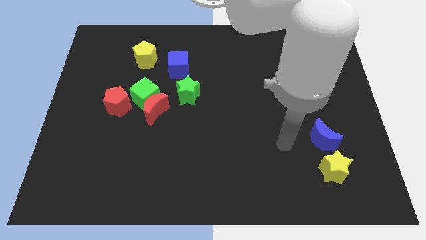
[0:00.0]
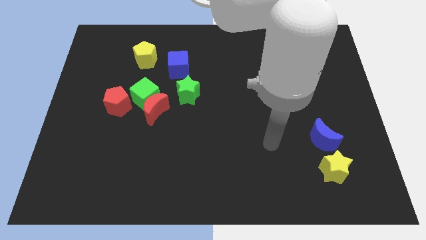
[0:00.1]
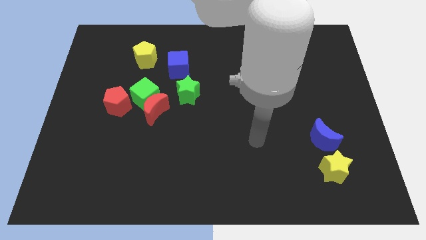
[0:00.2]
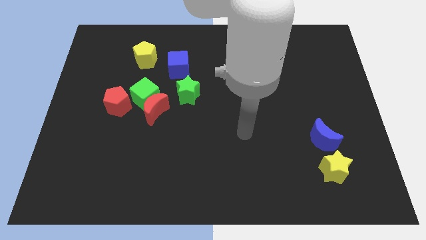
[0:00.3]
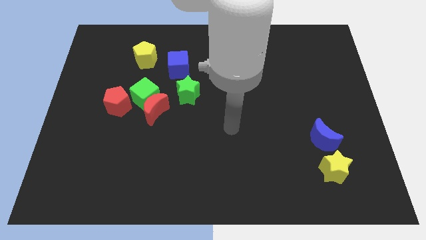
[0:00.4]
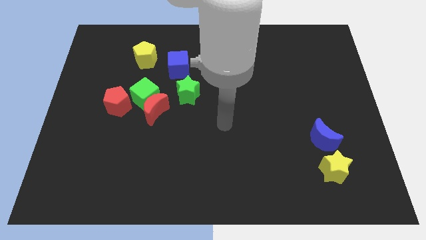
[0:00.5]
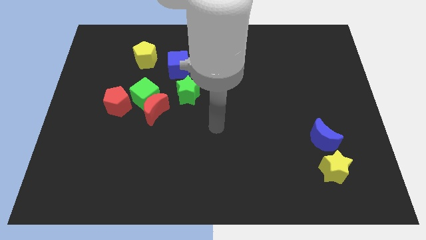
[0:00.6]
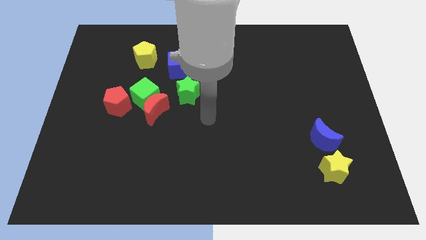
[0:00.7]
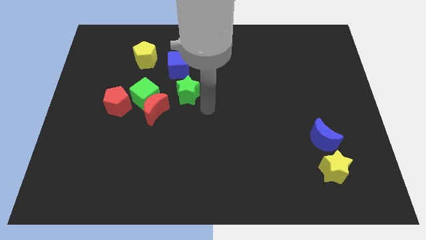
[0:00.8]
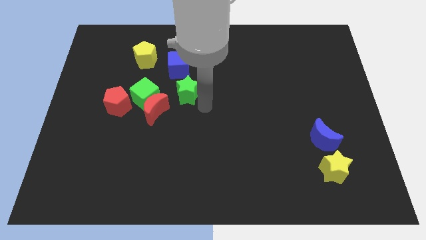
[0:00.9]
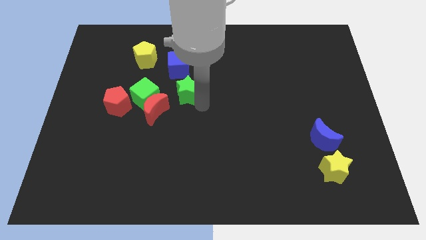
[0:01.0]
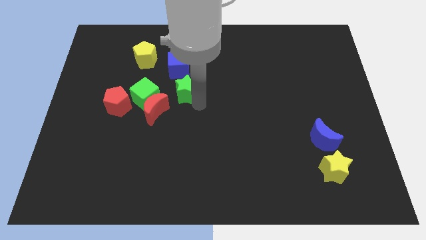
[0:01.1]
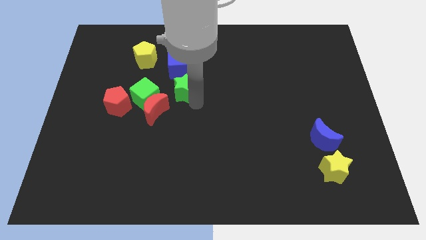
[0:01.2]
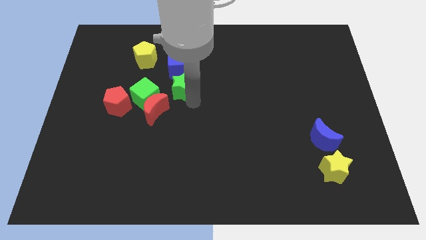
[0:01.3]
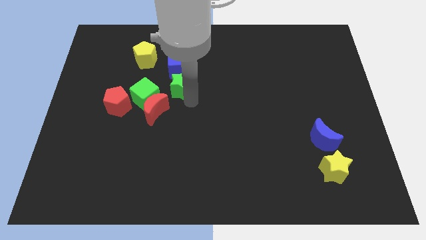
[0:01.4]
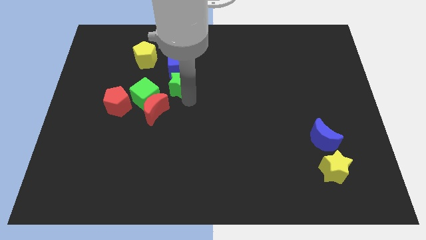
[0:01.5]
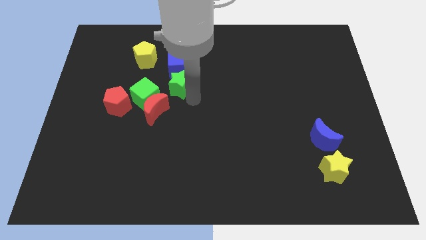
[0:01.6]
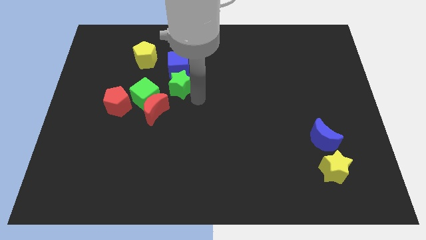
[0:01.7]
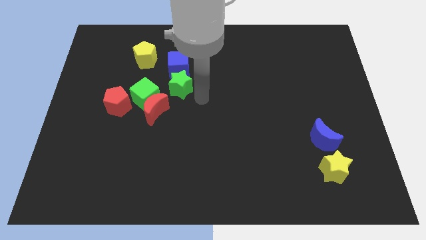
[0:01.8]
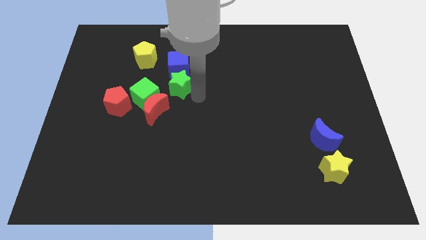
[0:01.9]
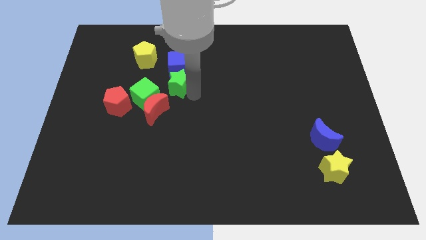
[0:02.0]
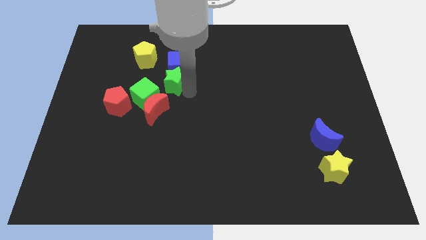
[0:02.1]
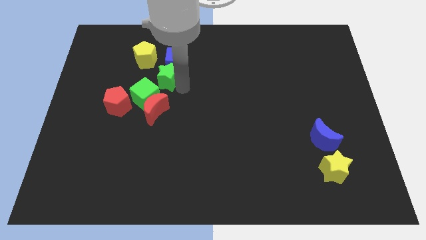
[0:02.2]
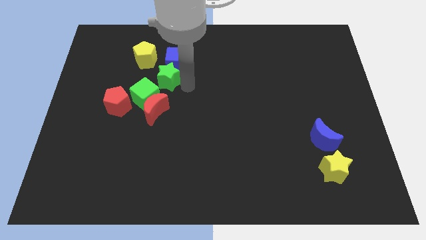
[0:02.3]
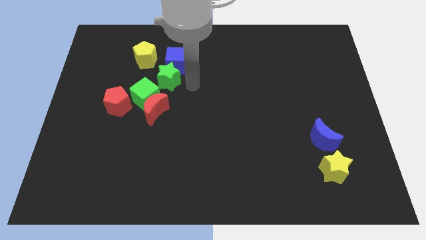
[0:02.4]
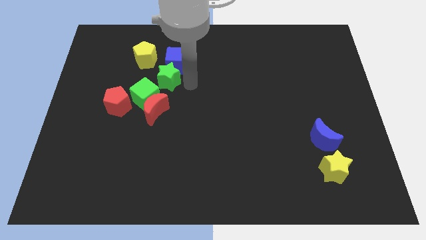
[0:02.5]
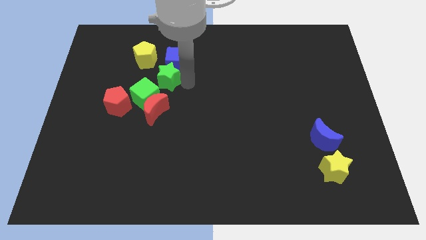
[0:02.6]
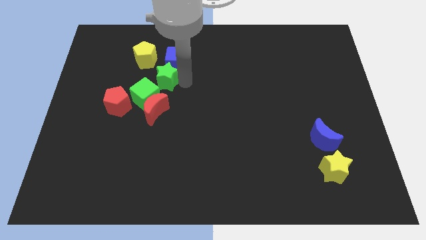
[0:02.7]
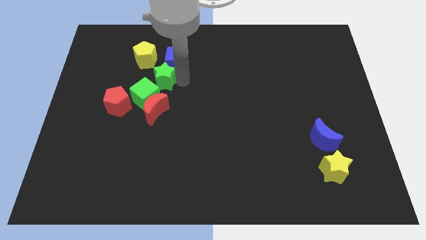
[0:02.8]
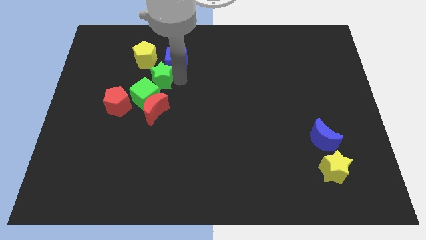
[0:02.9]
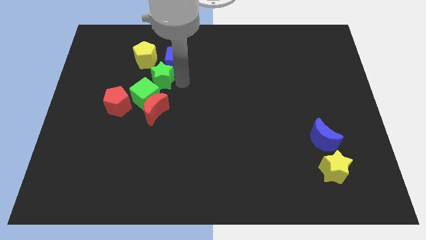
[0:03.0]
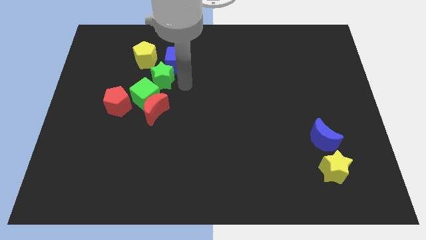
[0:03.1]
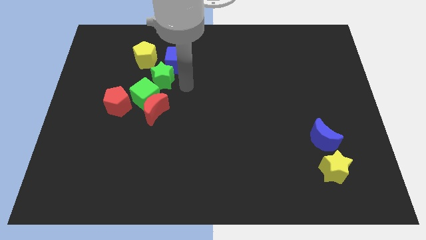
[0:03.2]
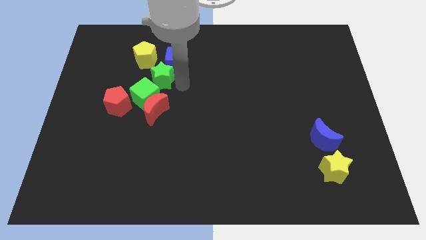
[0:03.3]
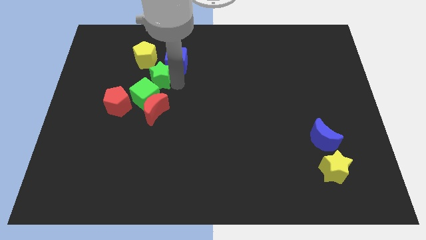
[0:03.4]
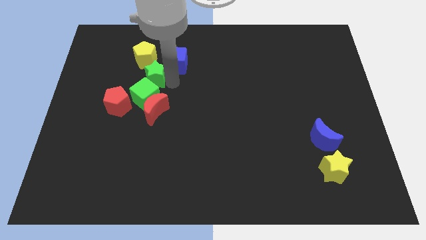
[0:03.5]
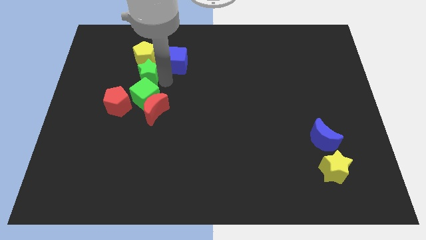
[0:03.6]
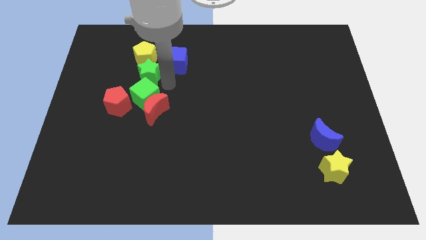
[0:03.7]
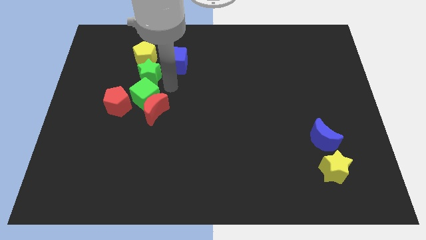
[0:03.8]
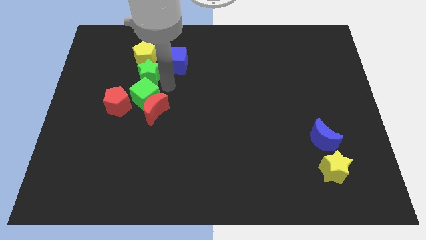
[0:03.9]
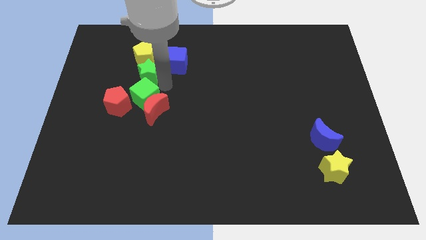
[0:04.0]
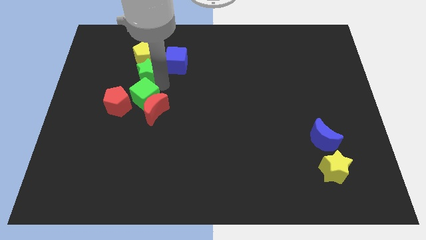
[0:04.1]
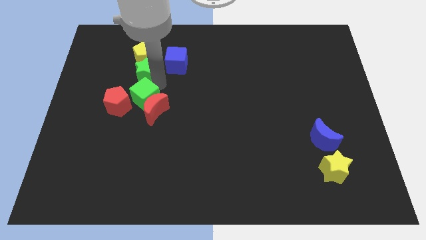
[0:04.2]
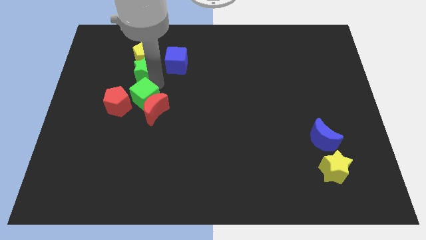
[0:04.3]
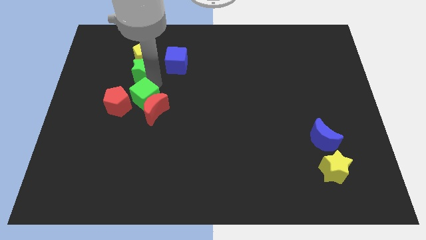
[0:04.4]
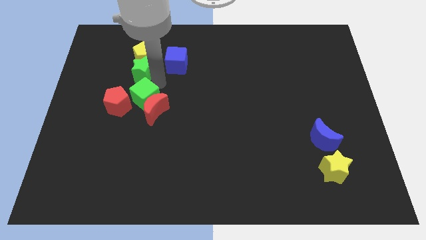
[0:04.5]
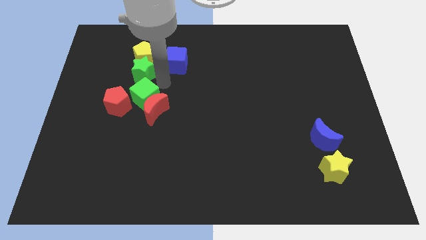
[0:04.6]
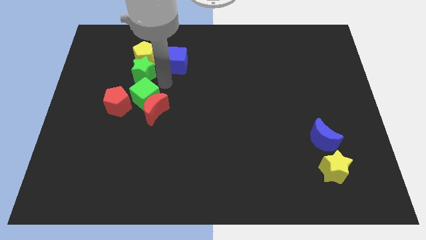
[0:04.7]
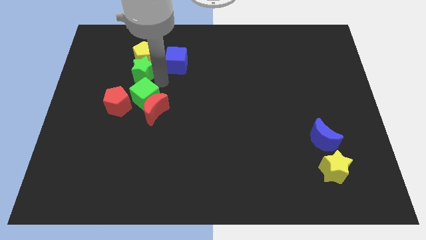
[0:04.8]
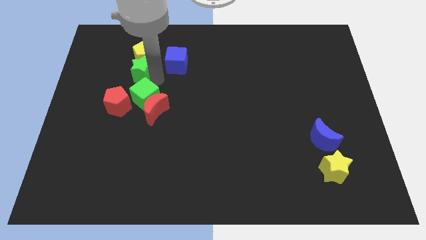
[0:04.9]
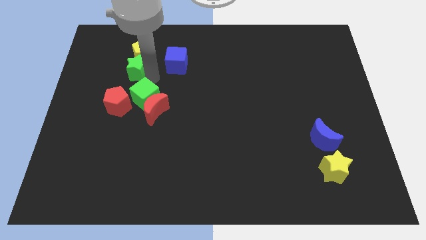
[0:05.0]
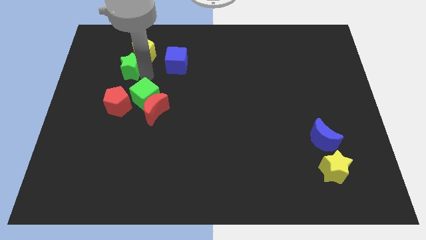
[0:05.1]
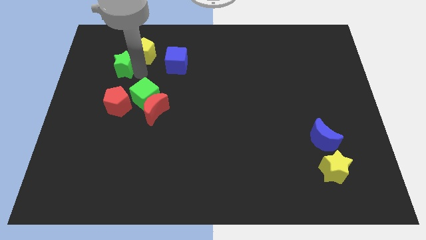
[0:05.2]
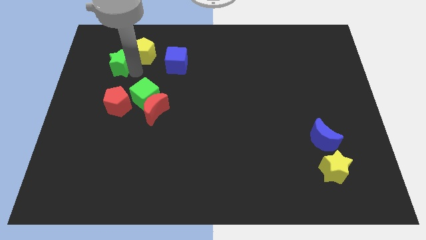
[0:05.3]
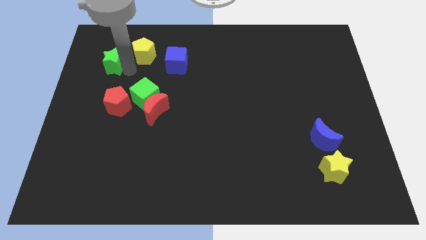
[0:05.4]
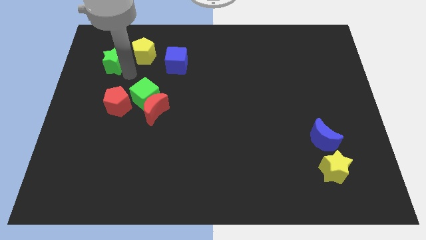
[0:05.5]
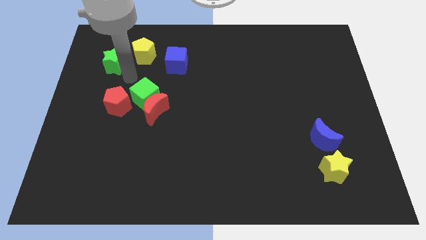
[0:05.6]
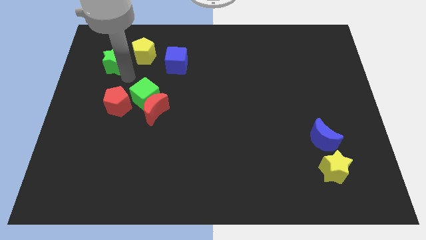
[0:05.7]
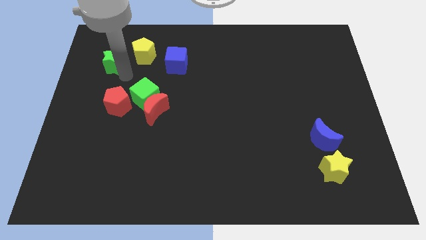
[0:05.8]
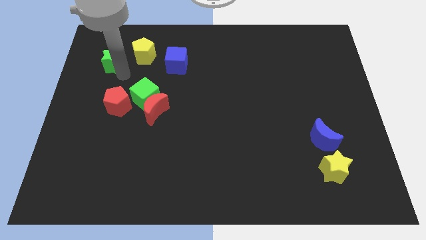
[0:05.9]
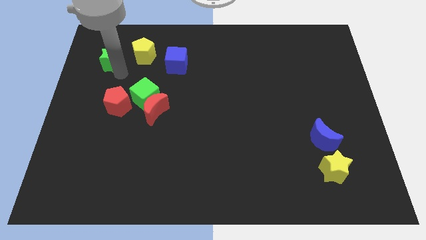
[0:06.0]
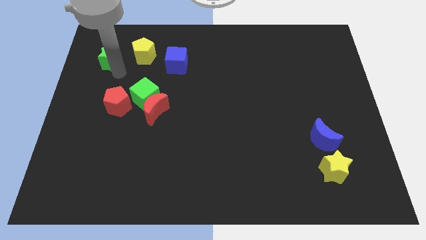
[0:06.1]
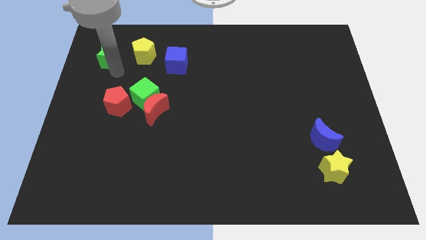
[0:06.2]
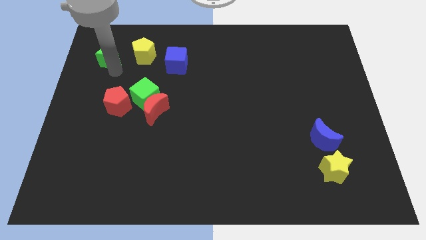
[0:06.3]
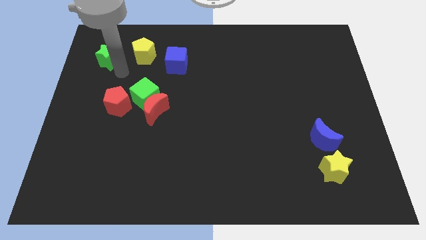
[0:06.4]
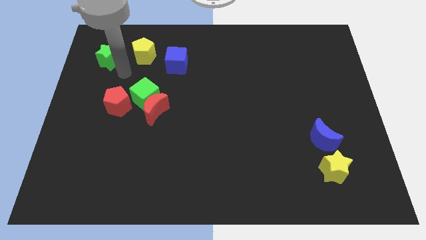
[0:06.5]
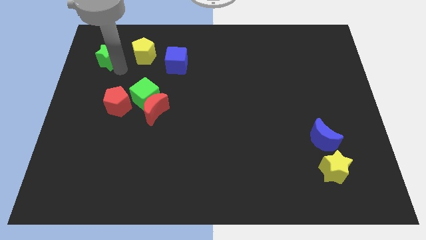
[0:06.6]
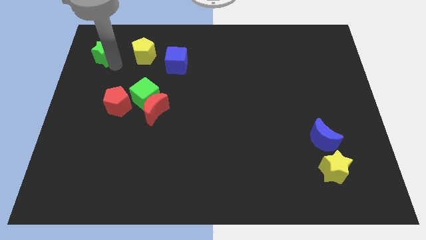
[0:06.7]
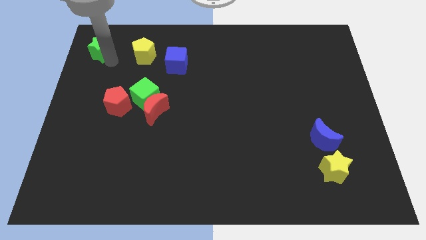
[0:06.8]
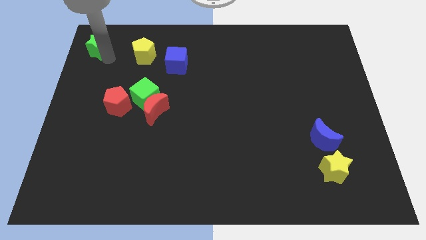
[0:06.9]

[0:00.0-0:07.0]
slide the green star to the top left

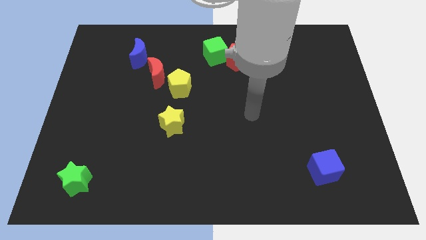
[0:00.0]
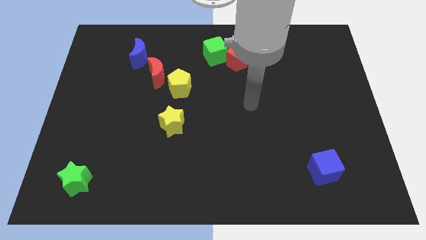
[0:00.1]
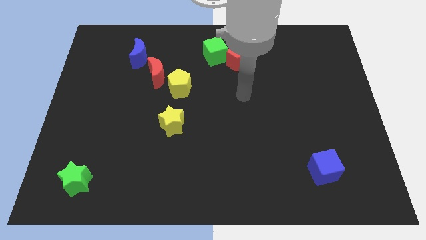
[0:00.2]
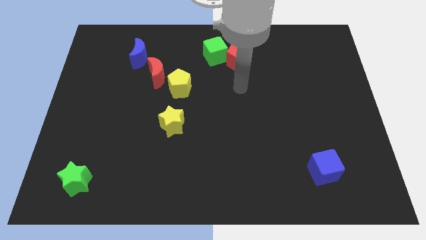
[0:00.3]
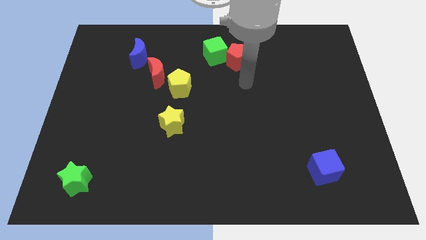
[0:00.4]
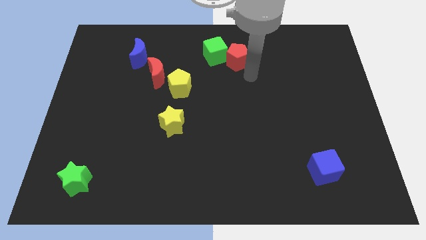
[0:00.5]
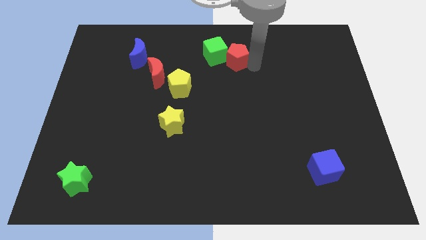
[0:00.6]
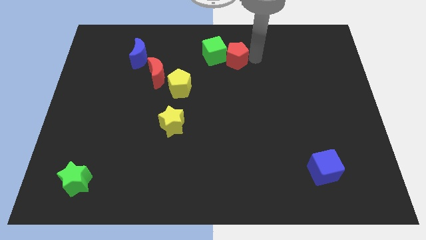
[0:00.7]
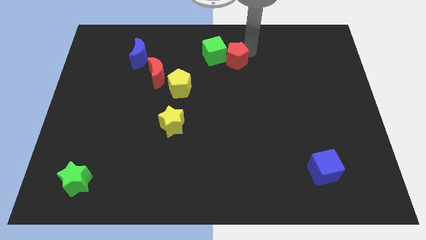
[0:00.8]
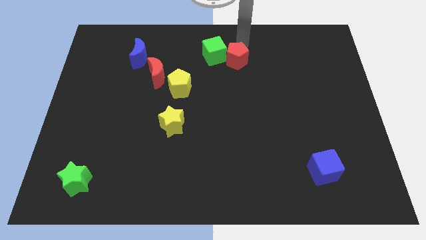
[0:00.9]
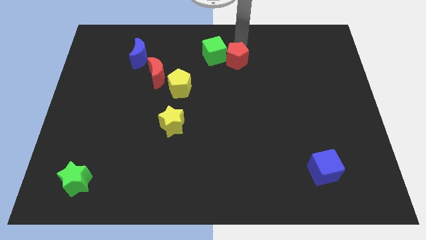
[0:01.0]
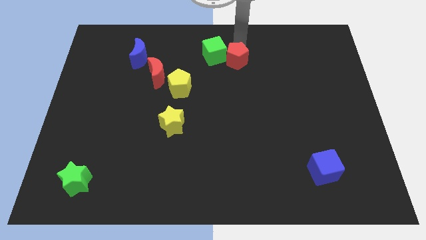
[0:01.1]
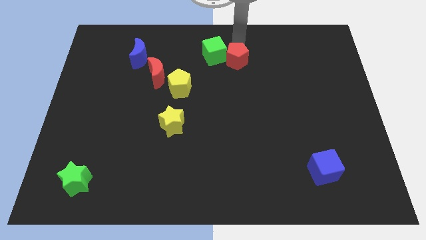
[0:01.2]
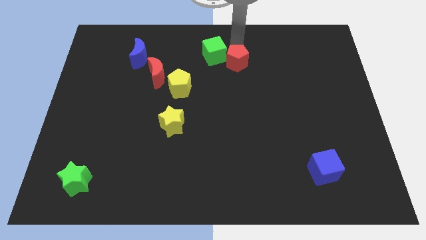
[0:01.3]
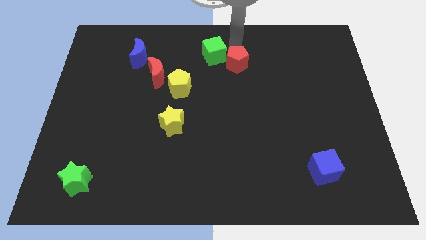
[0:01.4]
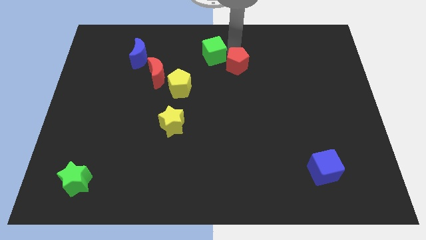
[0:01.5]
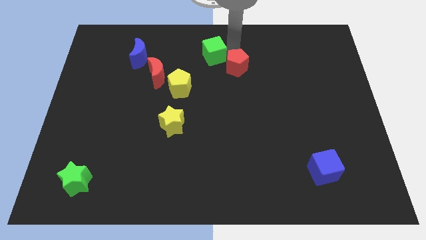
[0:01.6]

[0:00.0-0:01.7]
put the red pentagon to the center
